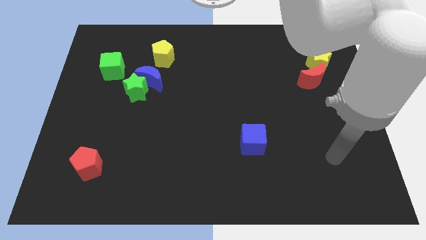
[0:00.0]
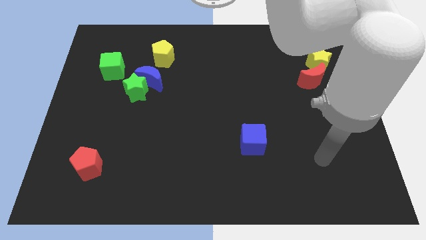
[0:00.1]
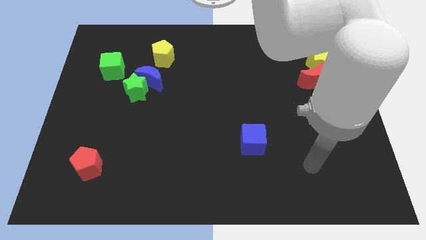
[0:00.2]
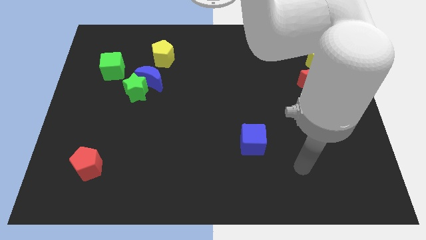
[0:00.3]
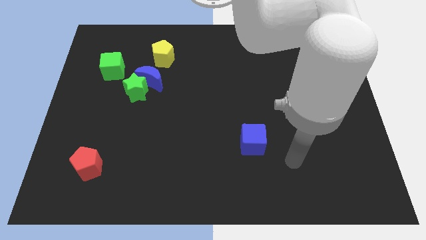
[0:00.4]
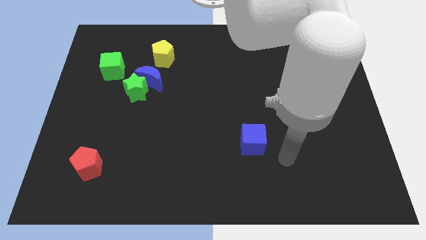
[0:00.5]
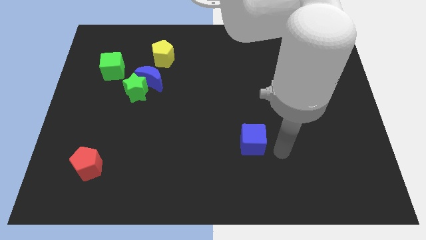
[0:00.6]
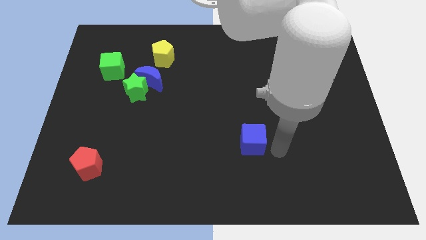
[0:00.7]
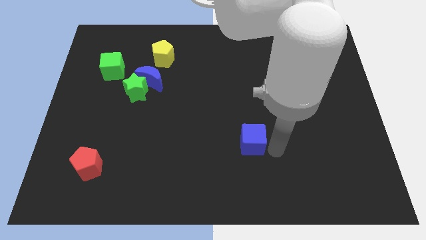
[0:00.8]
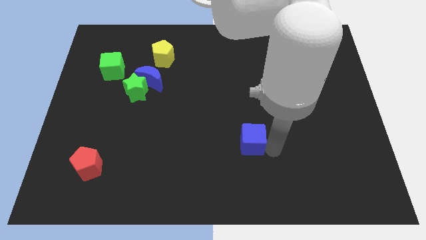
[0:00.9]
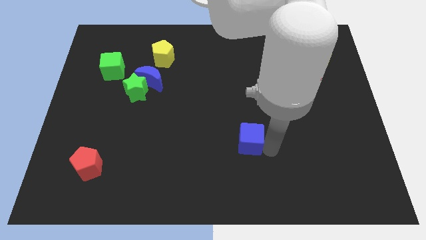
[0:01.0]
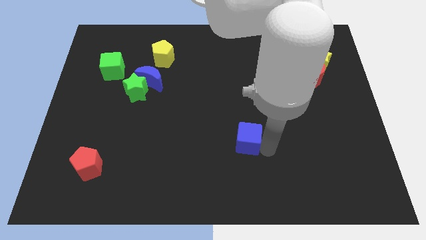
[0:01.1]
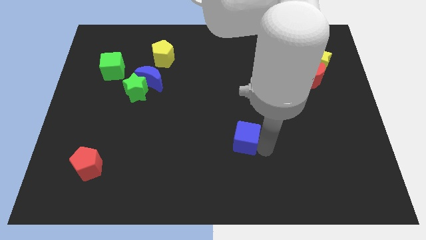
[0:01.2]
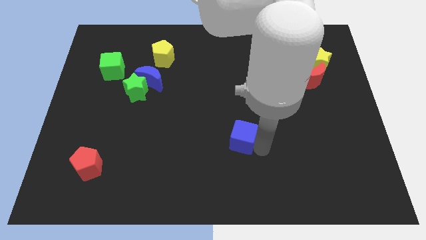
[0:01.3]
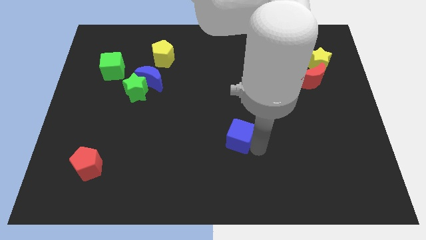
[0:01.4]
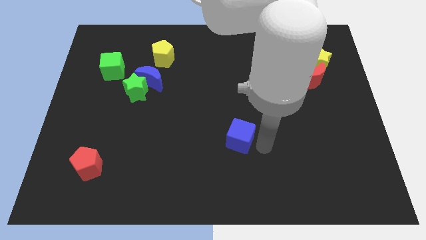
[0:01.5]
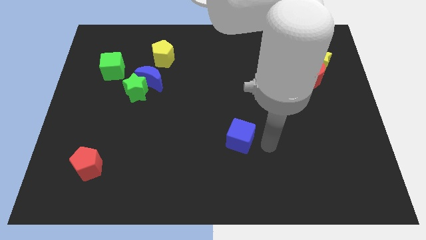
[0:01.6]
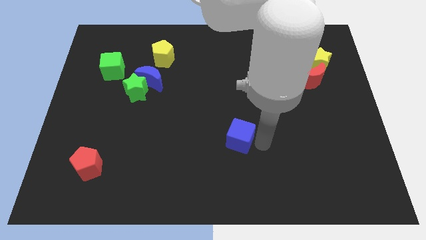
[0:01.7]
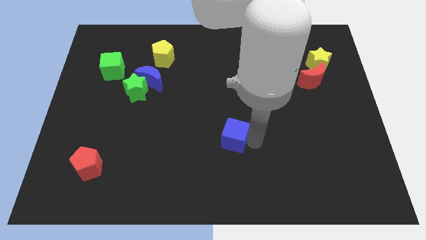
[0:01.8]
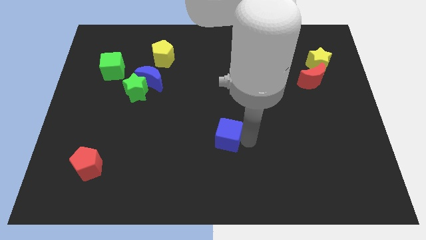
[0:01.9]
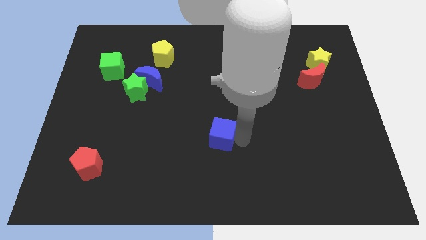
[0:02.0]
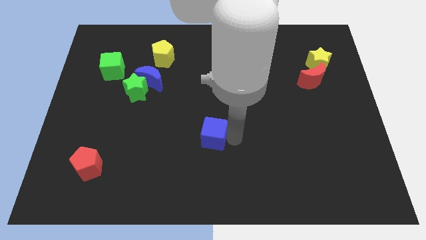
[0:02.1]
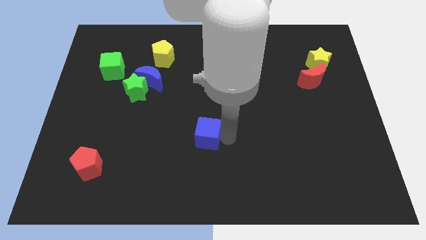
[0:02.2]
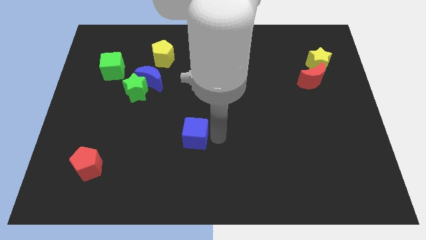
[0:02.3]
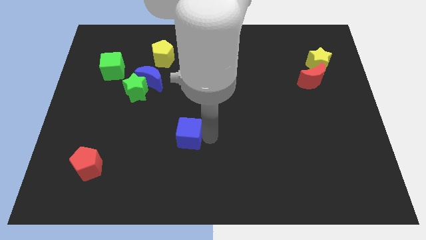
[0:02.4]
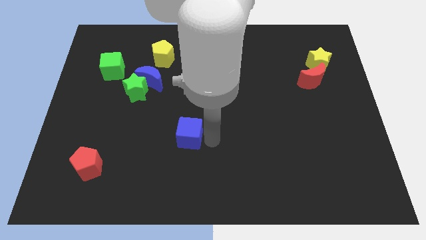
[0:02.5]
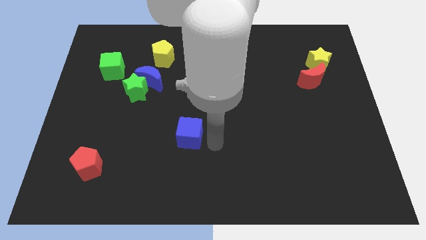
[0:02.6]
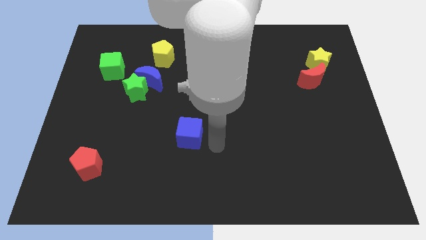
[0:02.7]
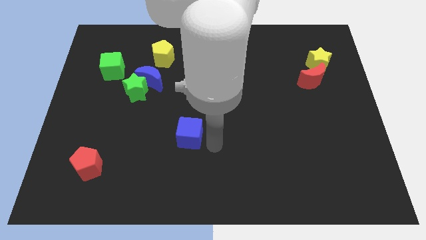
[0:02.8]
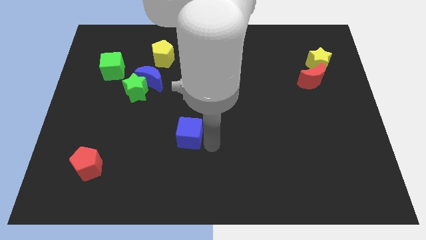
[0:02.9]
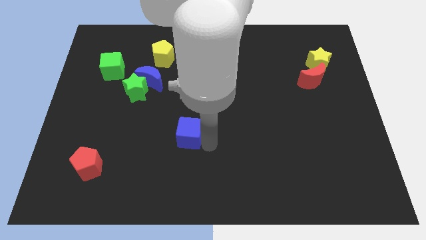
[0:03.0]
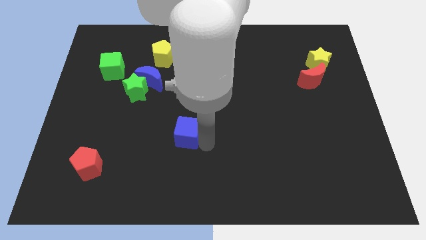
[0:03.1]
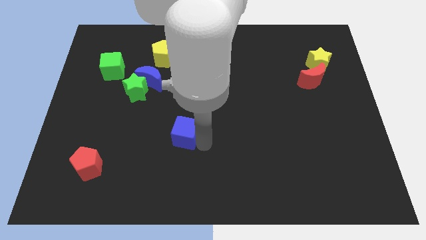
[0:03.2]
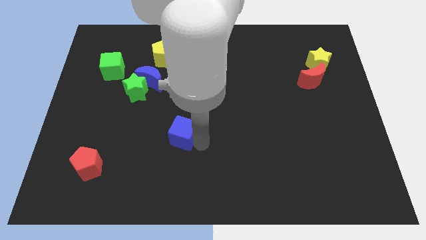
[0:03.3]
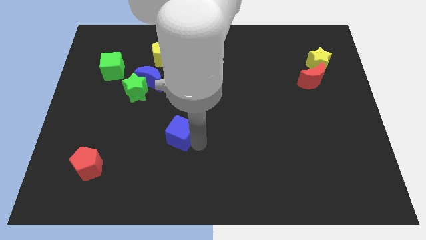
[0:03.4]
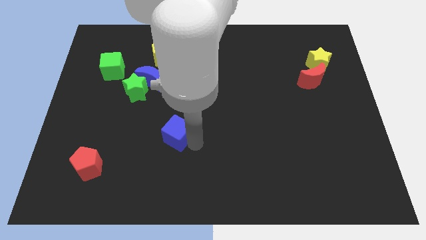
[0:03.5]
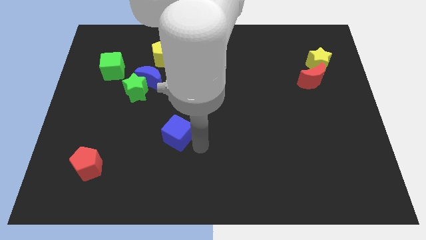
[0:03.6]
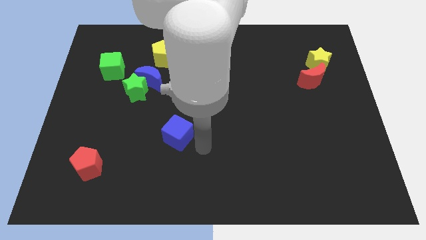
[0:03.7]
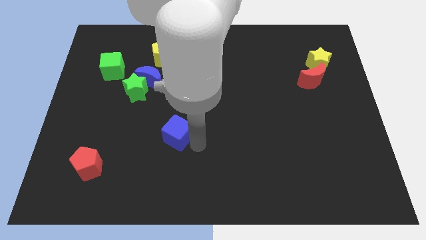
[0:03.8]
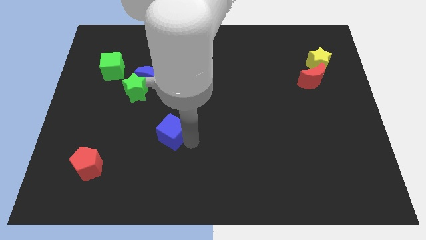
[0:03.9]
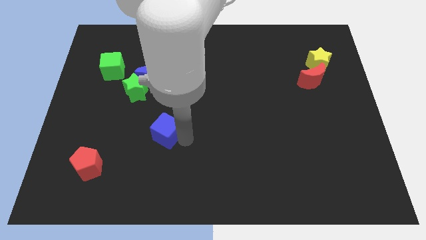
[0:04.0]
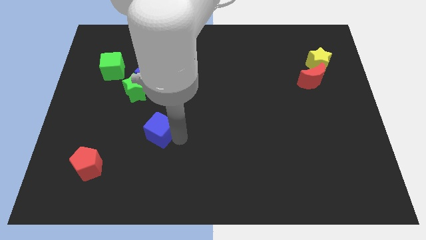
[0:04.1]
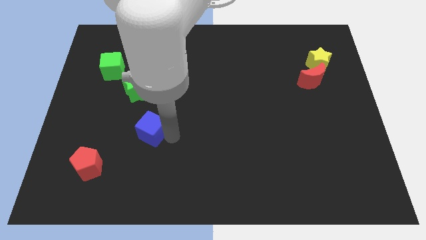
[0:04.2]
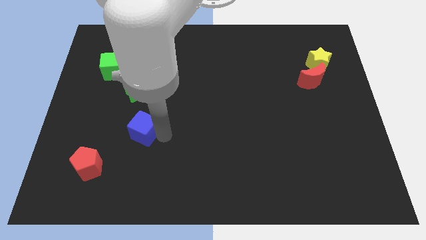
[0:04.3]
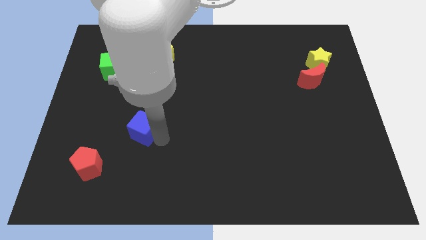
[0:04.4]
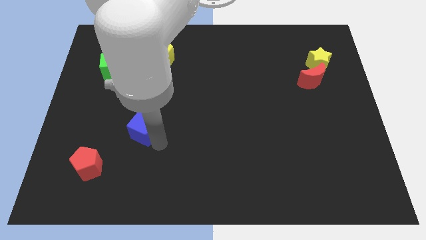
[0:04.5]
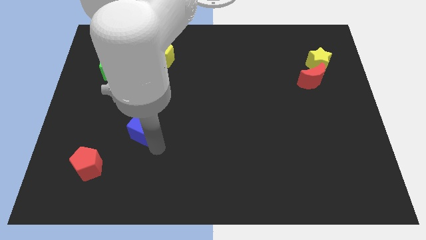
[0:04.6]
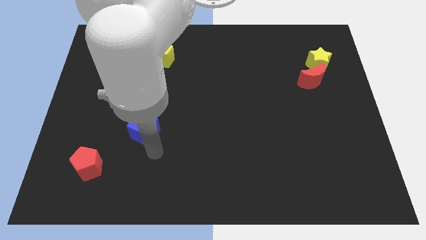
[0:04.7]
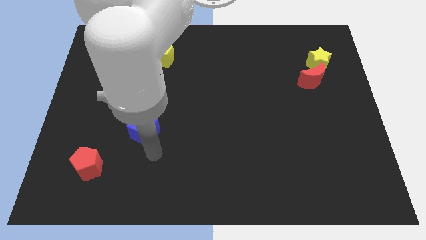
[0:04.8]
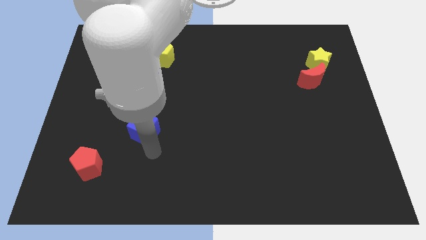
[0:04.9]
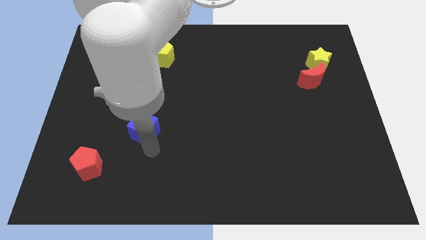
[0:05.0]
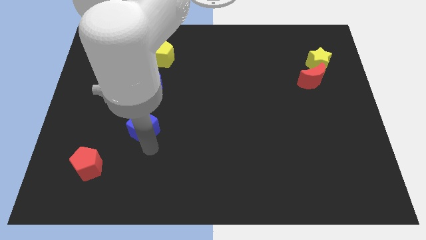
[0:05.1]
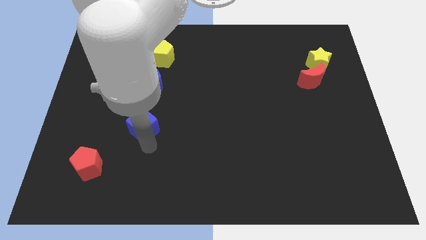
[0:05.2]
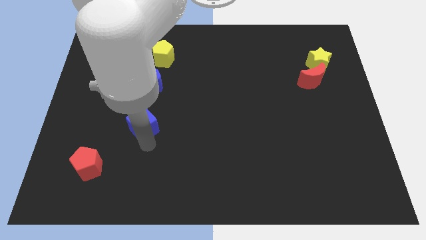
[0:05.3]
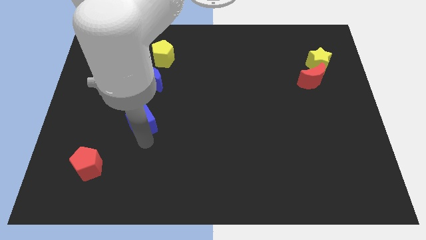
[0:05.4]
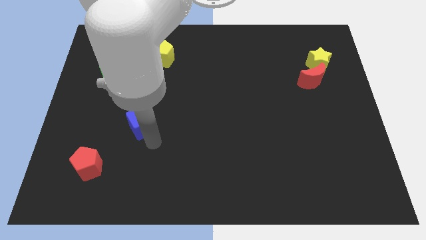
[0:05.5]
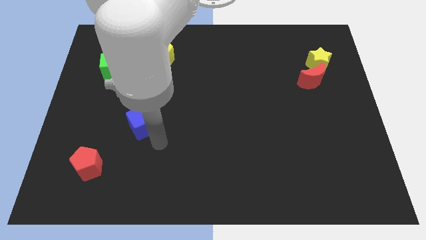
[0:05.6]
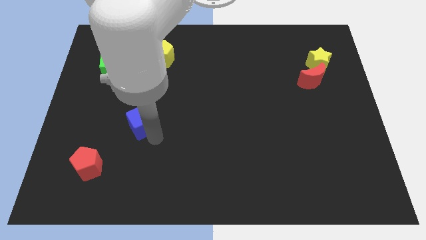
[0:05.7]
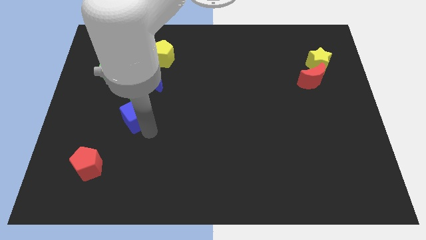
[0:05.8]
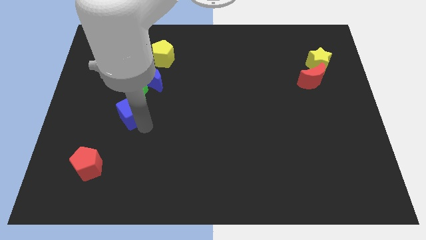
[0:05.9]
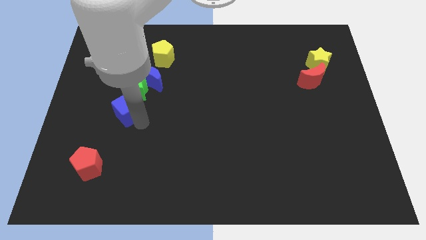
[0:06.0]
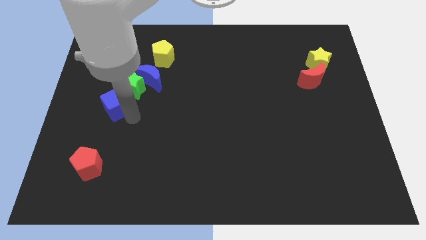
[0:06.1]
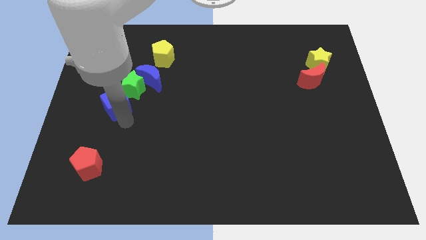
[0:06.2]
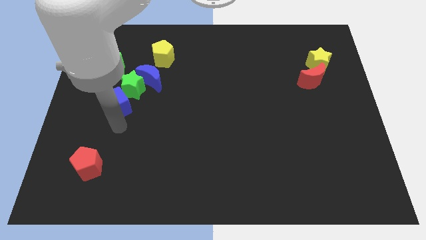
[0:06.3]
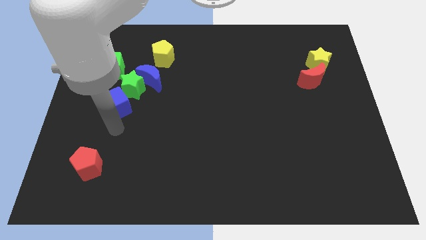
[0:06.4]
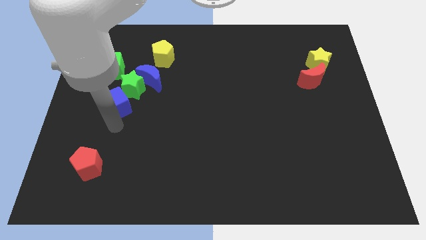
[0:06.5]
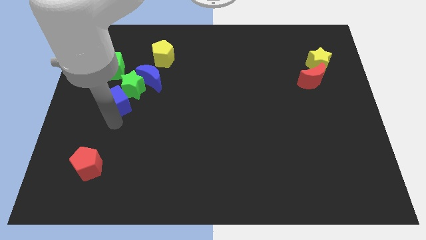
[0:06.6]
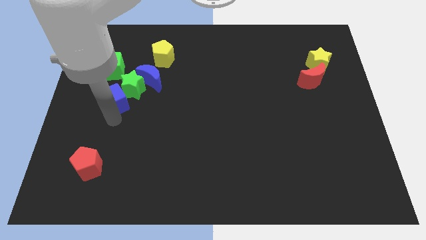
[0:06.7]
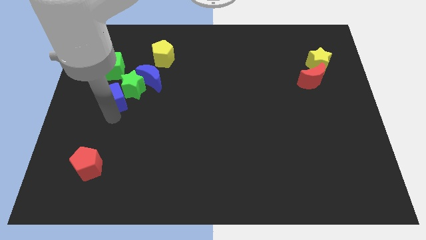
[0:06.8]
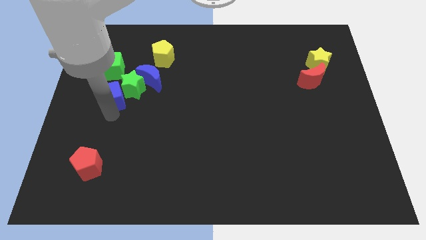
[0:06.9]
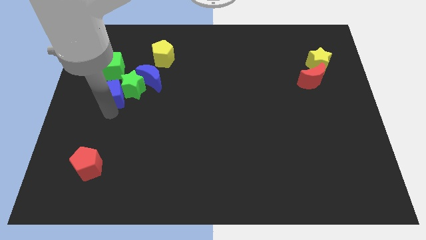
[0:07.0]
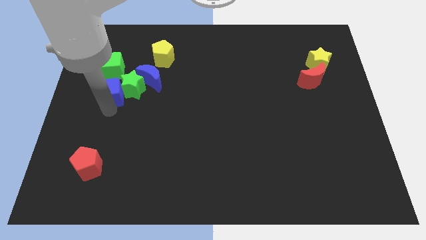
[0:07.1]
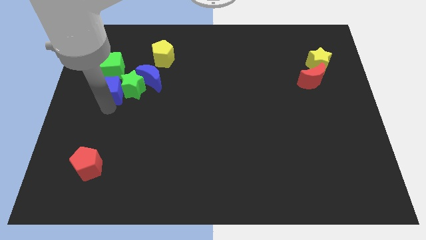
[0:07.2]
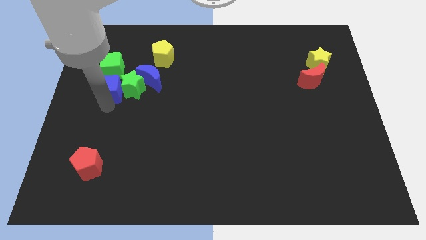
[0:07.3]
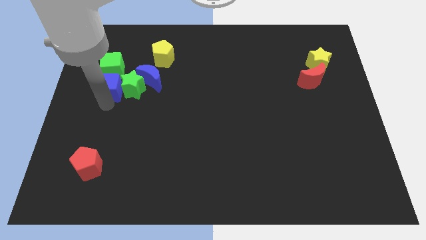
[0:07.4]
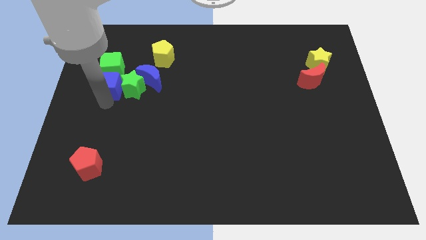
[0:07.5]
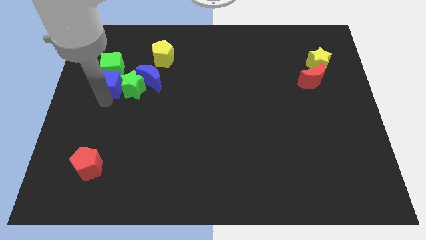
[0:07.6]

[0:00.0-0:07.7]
put the blue cube towards the green cube
